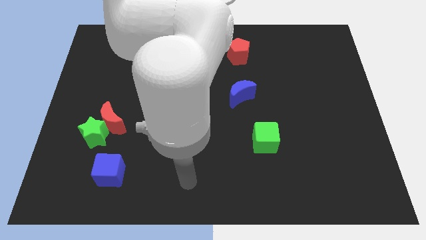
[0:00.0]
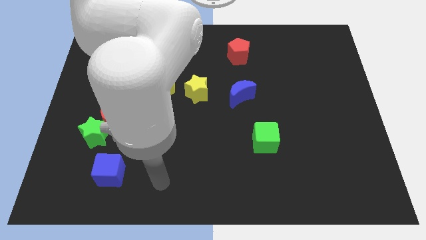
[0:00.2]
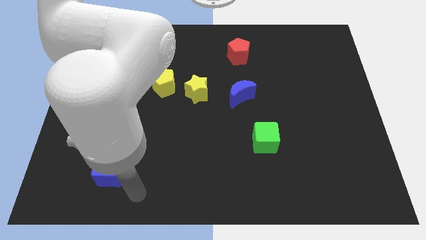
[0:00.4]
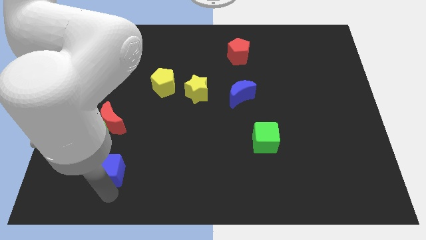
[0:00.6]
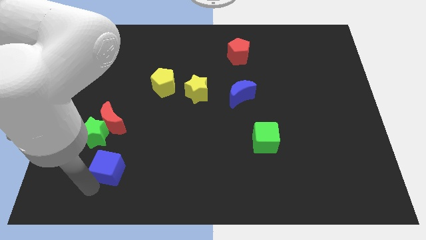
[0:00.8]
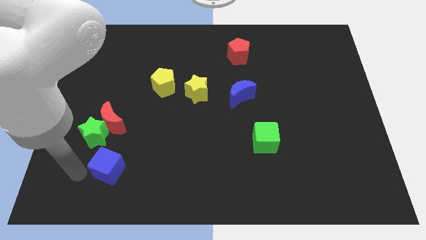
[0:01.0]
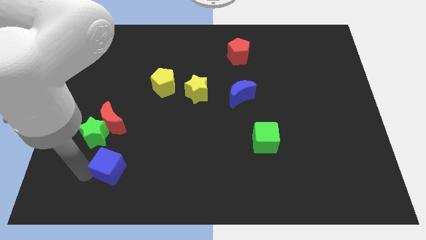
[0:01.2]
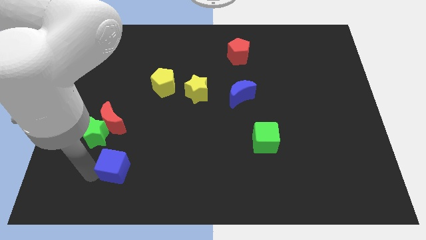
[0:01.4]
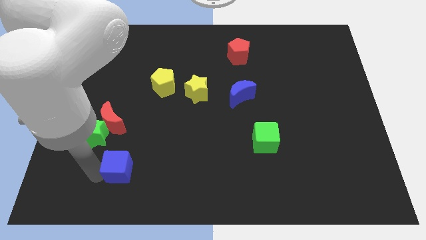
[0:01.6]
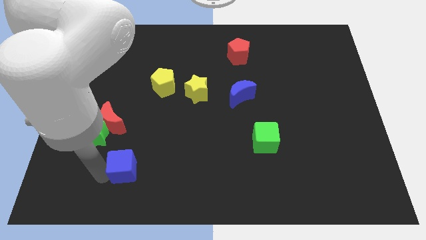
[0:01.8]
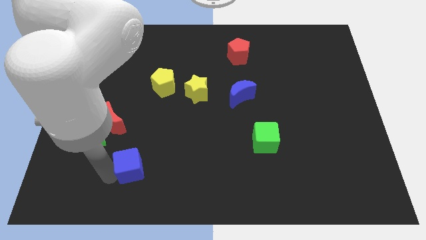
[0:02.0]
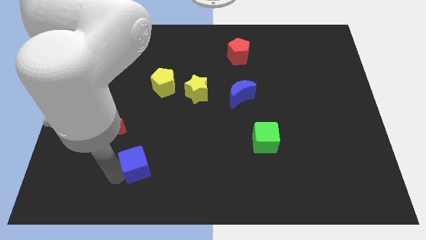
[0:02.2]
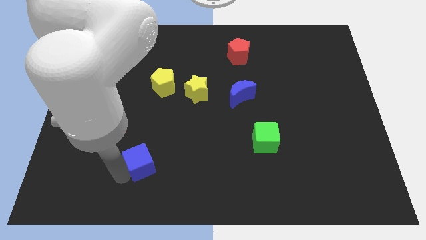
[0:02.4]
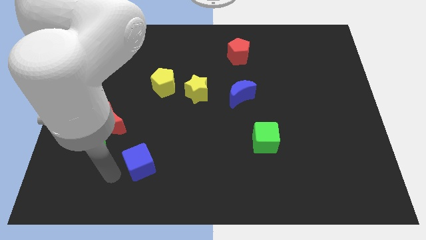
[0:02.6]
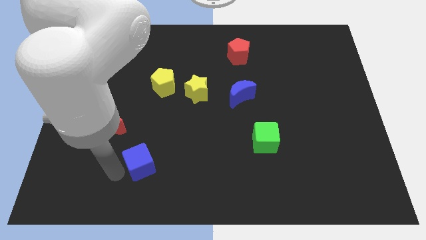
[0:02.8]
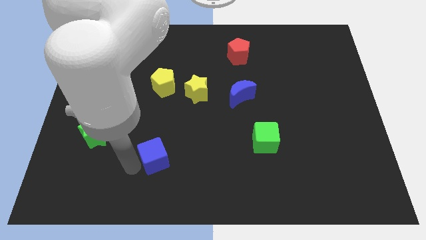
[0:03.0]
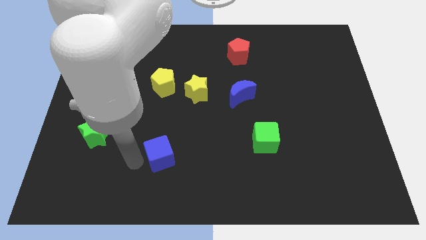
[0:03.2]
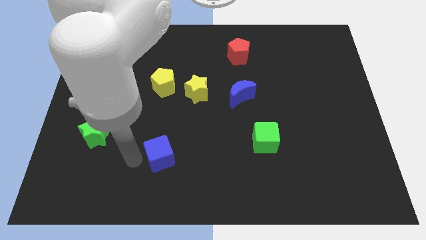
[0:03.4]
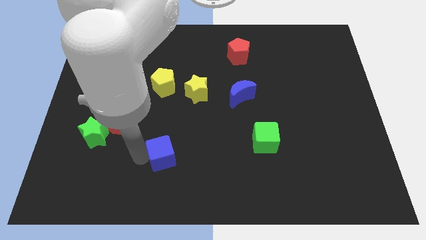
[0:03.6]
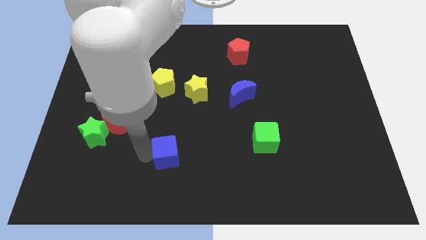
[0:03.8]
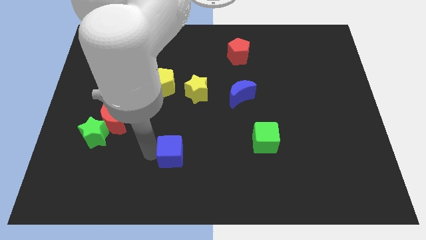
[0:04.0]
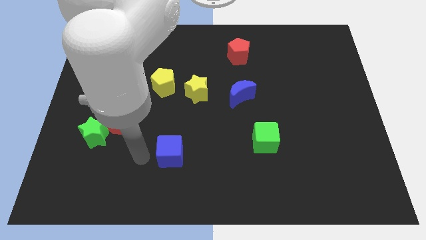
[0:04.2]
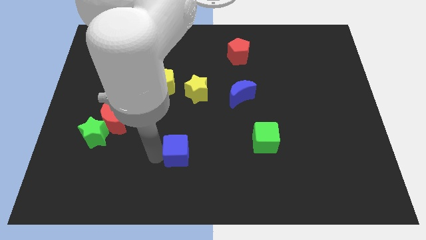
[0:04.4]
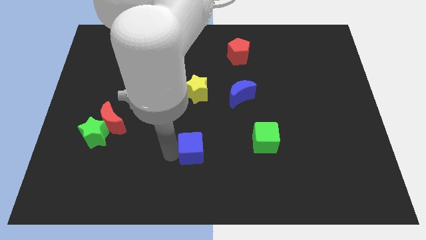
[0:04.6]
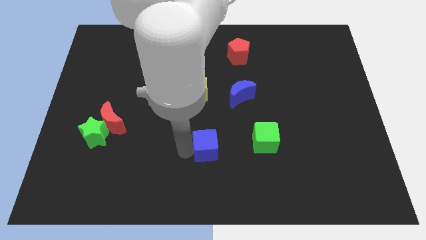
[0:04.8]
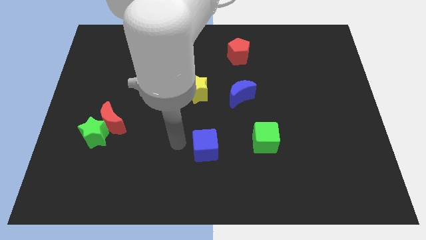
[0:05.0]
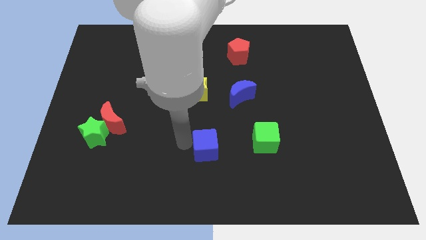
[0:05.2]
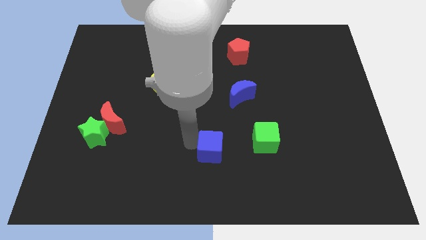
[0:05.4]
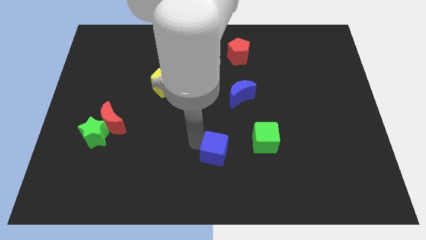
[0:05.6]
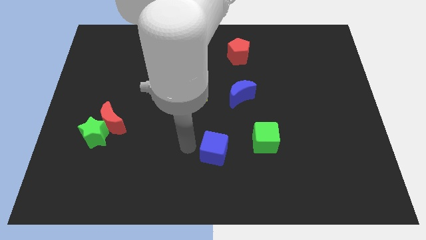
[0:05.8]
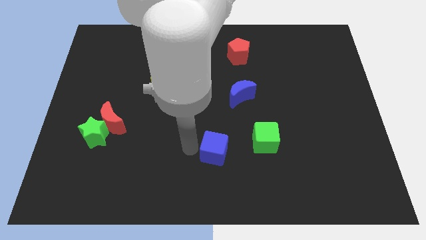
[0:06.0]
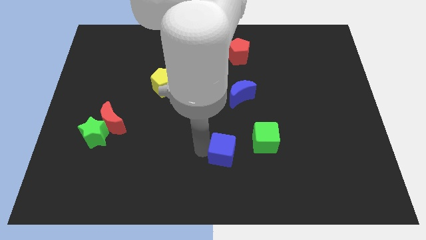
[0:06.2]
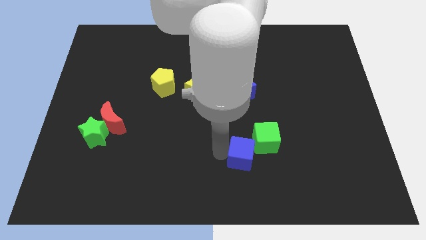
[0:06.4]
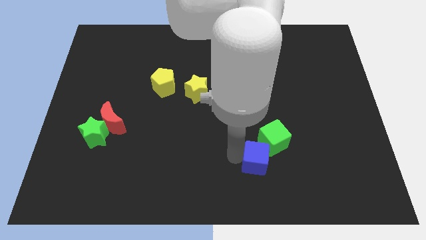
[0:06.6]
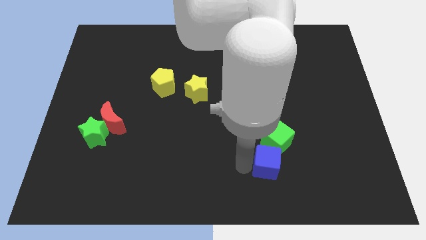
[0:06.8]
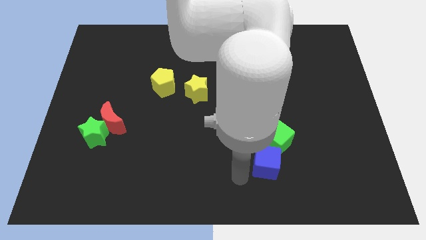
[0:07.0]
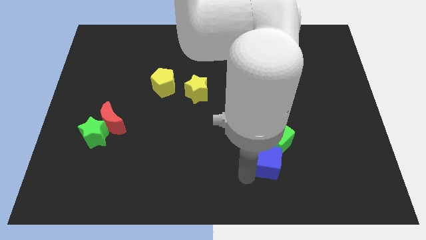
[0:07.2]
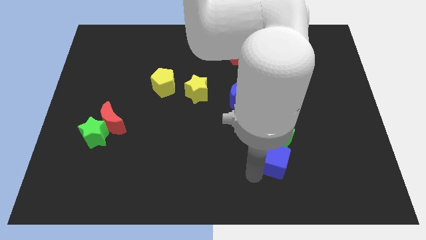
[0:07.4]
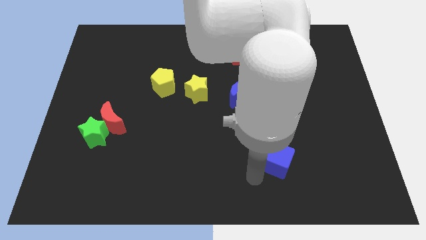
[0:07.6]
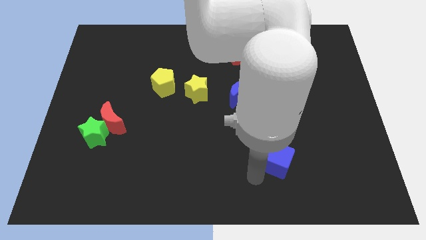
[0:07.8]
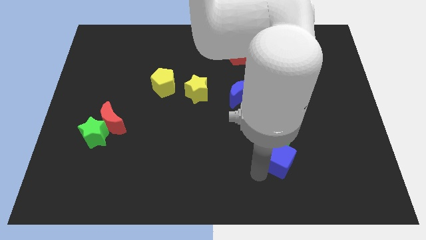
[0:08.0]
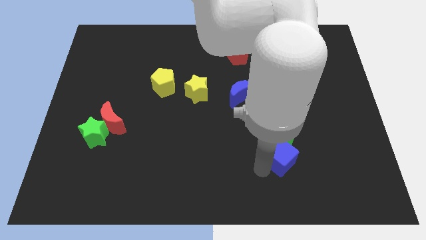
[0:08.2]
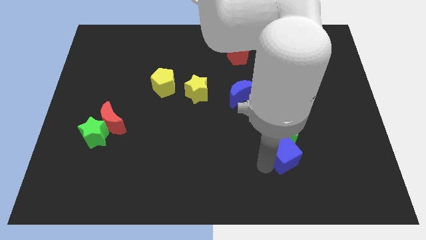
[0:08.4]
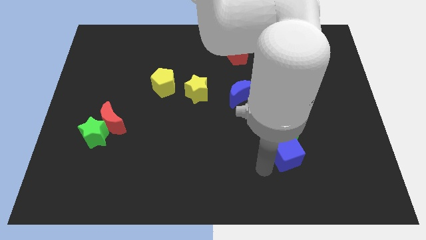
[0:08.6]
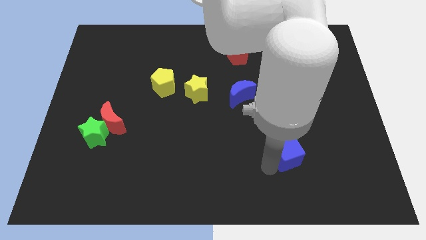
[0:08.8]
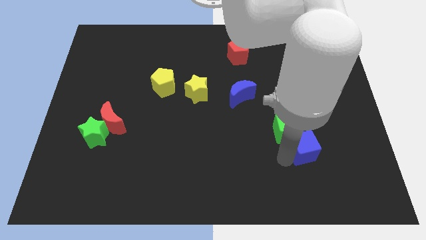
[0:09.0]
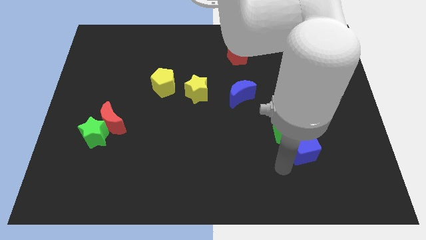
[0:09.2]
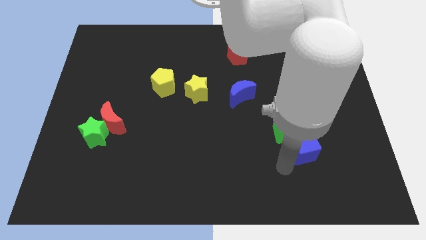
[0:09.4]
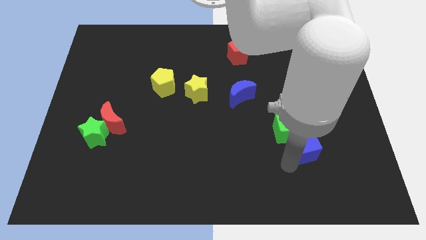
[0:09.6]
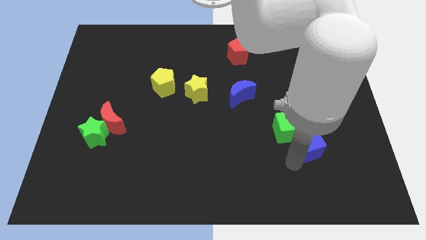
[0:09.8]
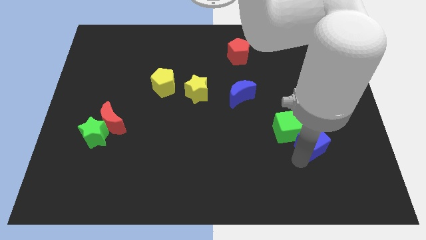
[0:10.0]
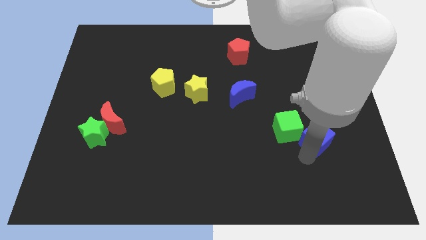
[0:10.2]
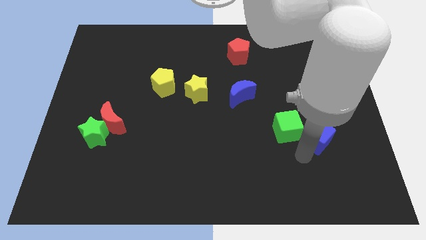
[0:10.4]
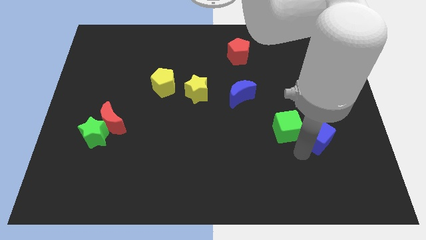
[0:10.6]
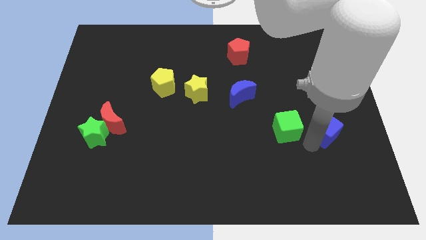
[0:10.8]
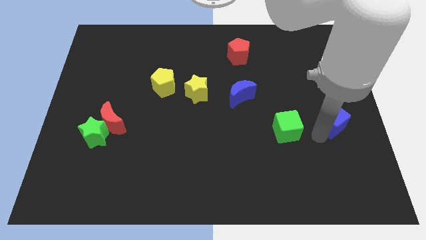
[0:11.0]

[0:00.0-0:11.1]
put the blue cube to the center right
